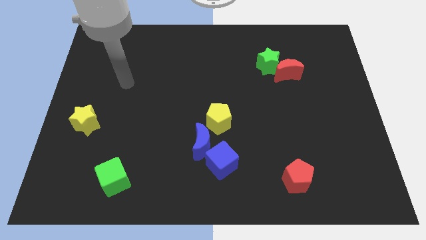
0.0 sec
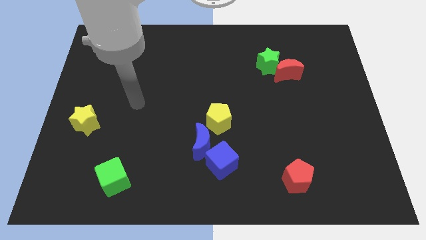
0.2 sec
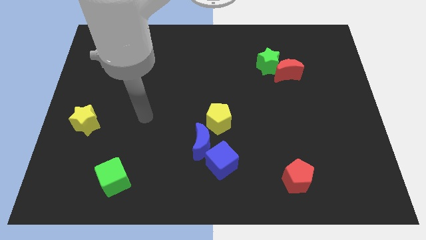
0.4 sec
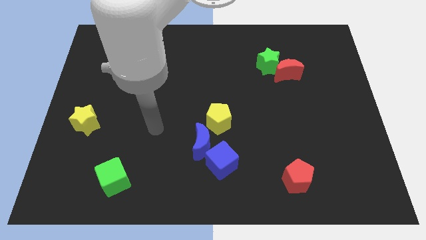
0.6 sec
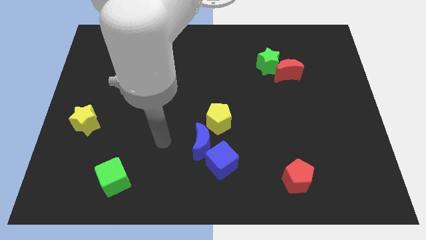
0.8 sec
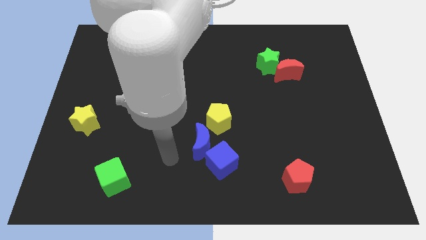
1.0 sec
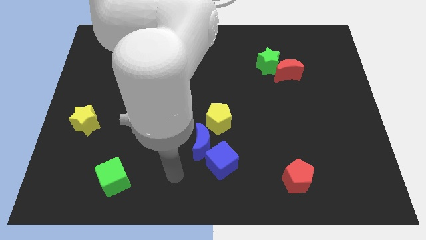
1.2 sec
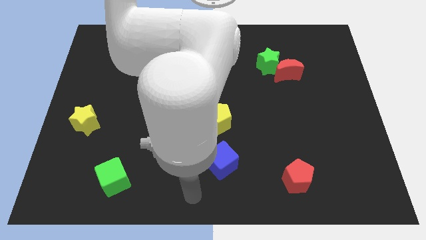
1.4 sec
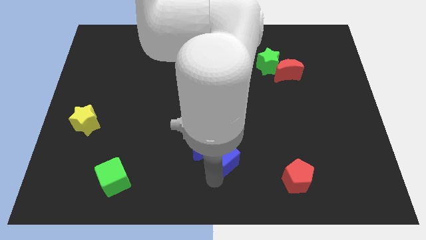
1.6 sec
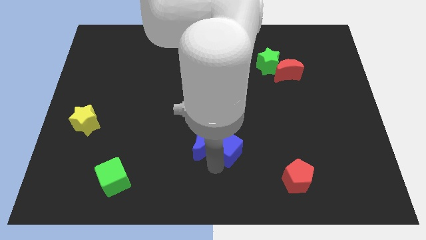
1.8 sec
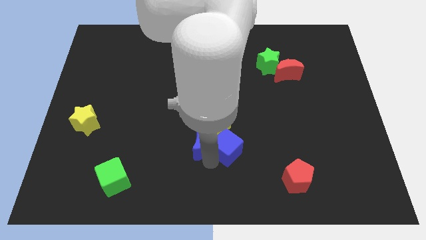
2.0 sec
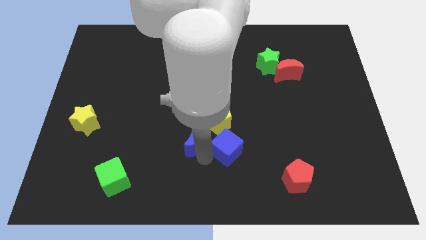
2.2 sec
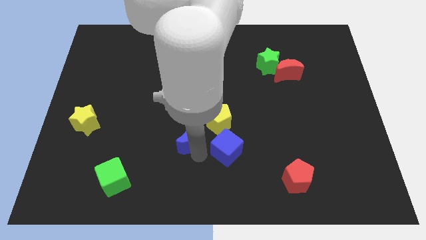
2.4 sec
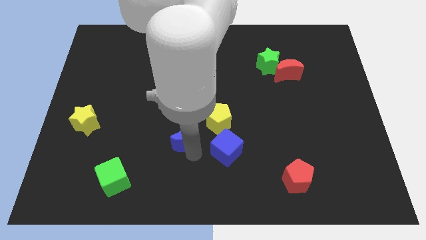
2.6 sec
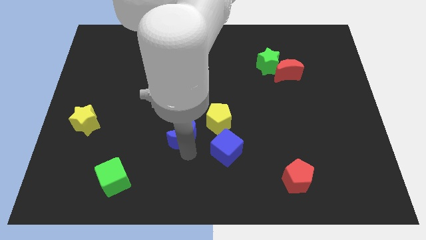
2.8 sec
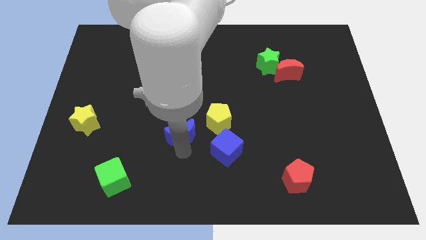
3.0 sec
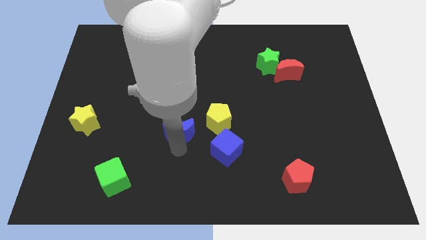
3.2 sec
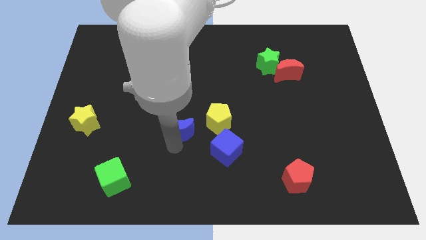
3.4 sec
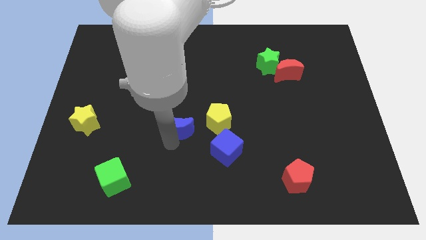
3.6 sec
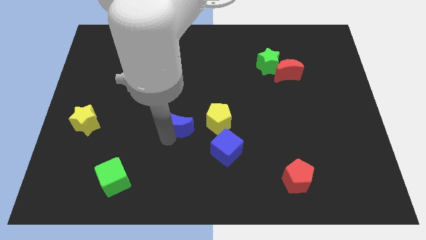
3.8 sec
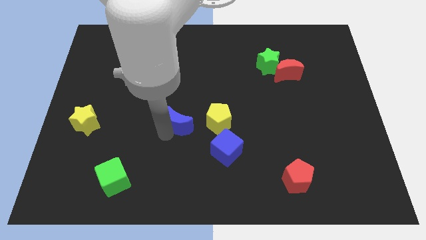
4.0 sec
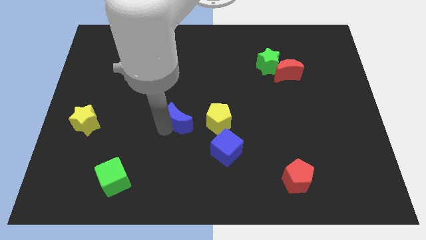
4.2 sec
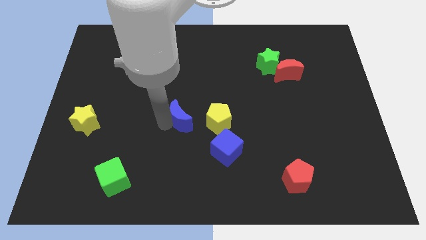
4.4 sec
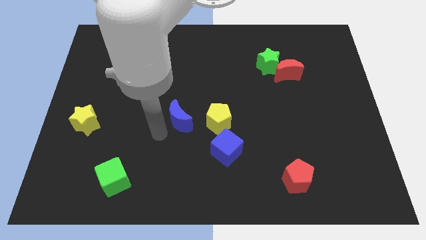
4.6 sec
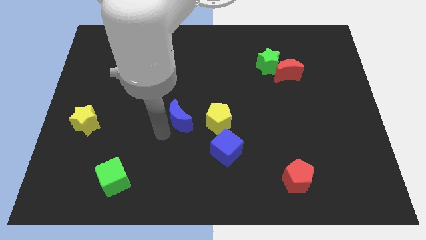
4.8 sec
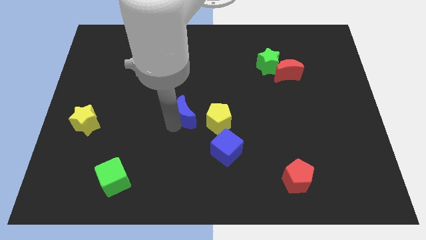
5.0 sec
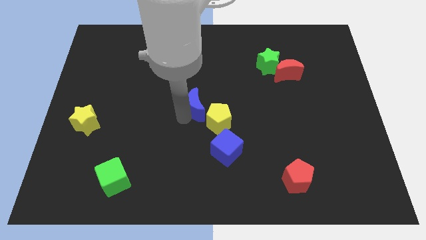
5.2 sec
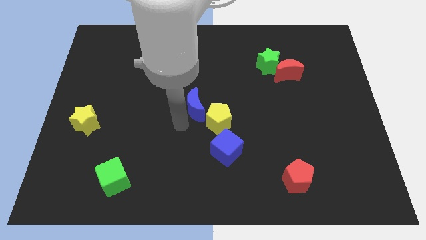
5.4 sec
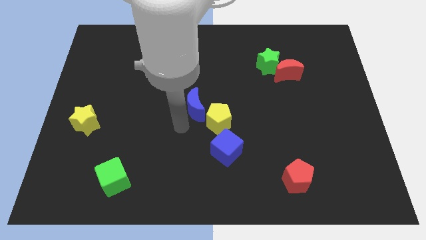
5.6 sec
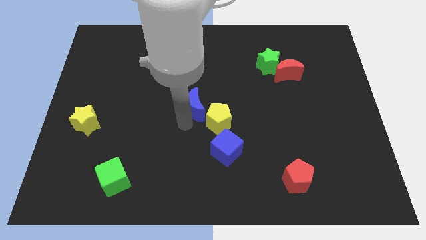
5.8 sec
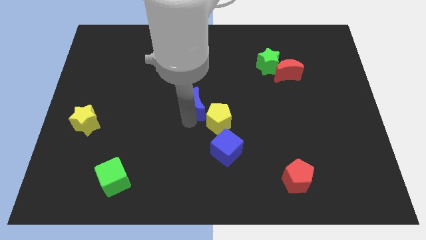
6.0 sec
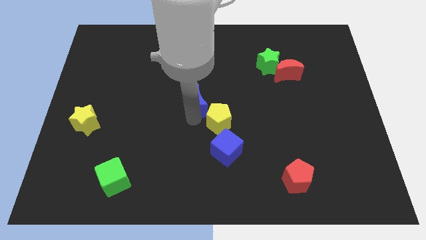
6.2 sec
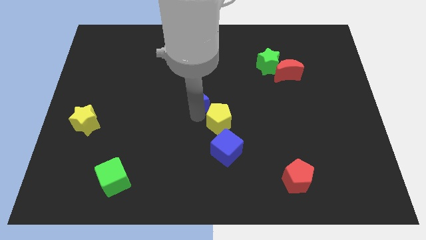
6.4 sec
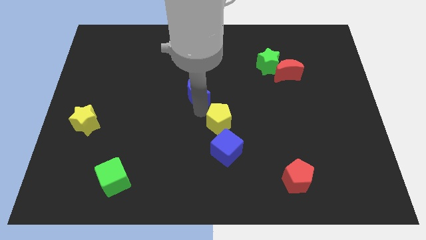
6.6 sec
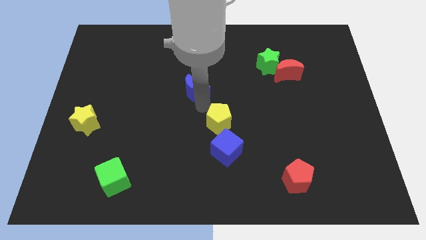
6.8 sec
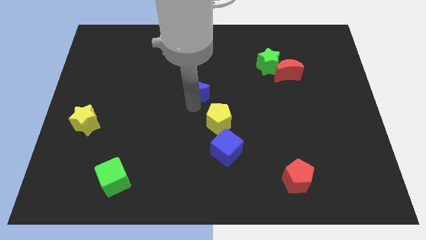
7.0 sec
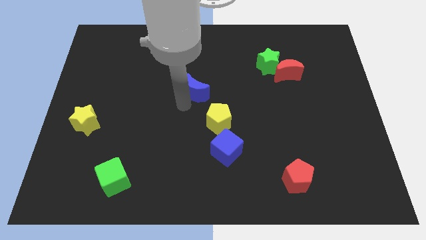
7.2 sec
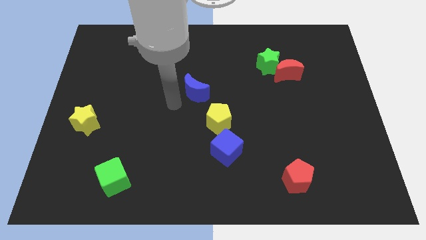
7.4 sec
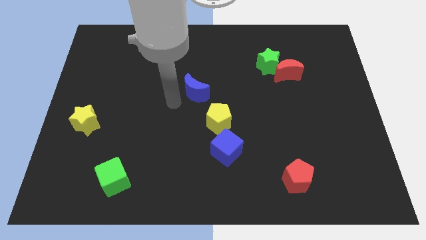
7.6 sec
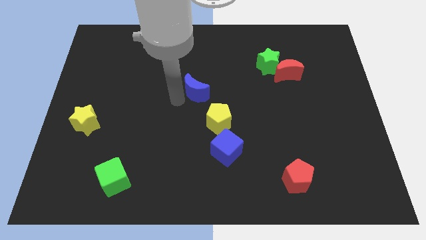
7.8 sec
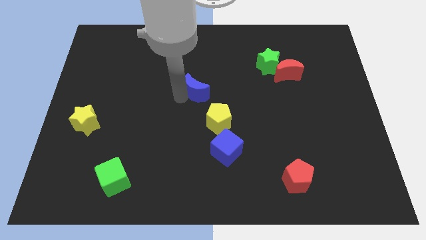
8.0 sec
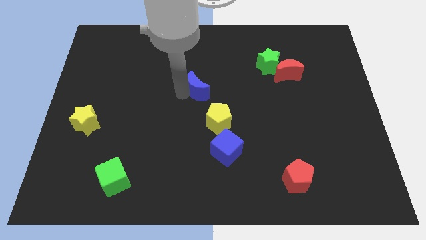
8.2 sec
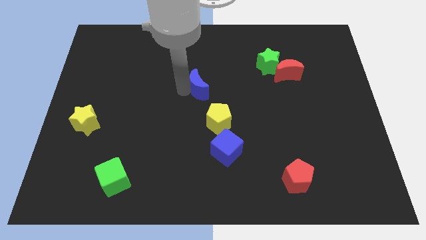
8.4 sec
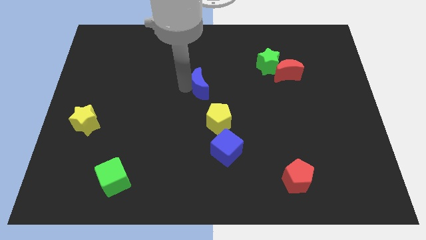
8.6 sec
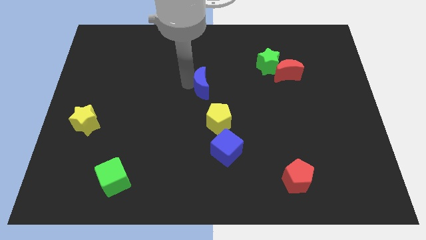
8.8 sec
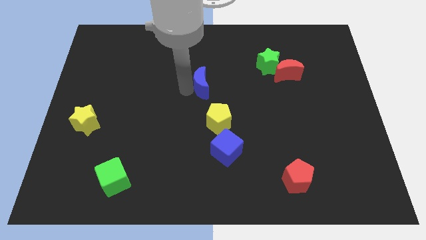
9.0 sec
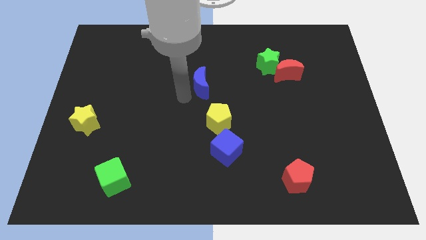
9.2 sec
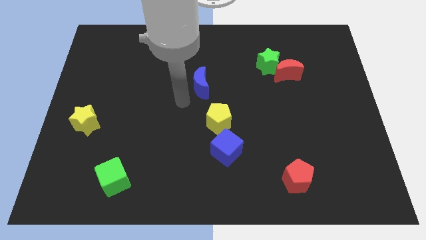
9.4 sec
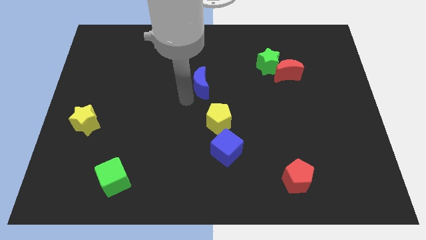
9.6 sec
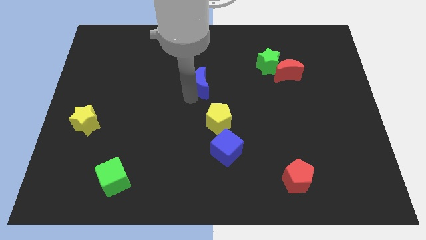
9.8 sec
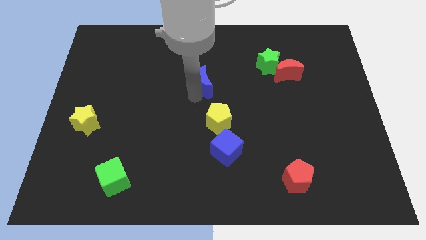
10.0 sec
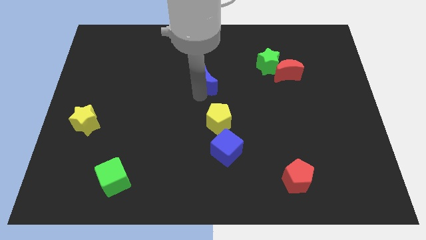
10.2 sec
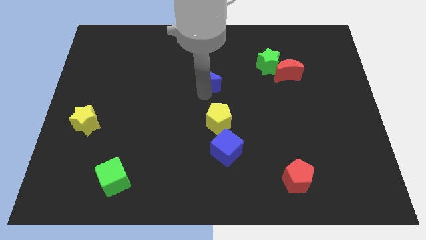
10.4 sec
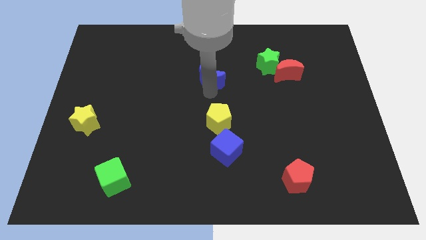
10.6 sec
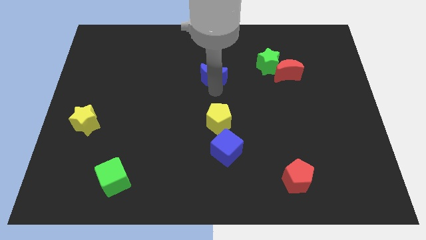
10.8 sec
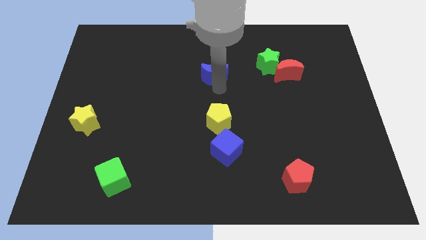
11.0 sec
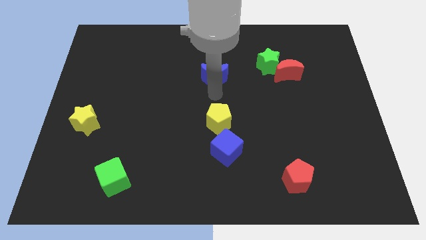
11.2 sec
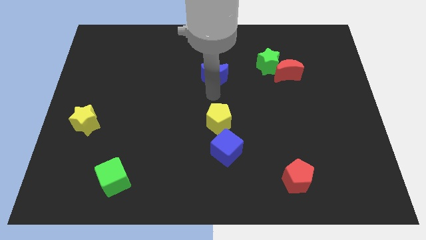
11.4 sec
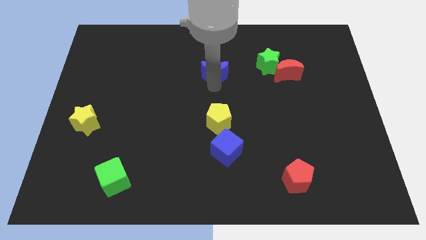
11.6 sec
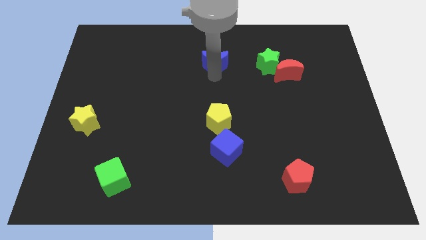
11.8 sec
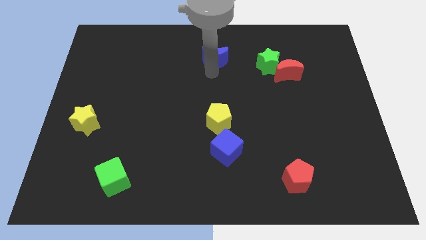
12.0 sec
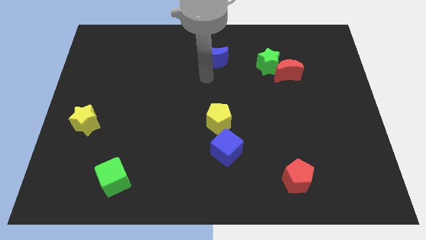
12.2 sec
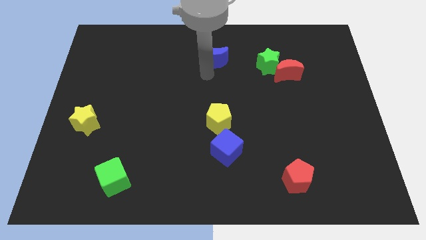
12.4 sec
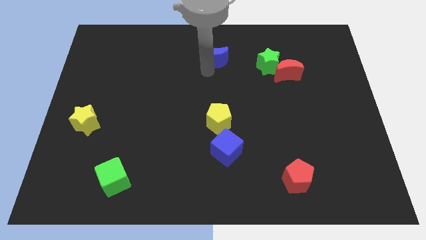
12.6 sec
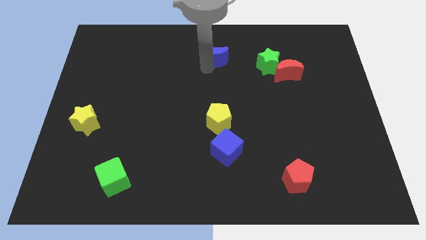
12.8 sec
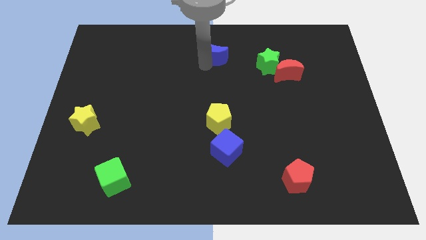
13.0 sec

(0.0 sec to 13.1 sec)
slide the blue moon to the towards your base

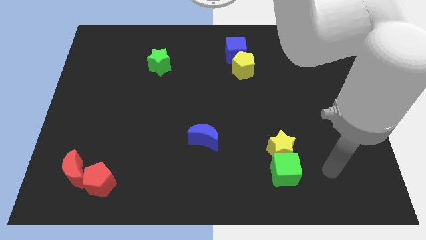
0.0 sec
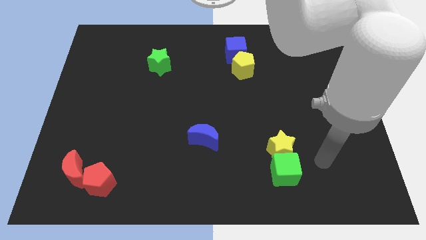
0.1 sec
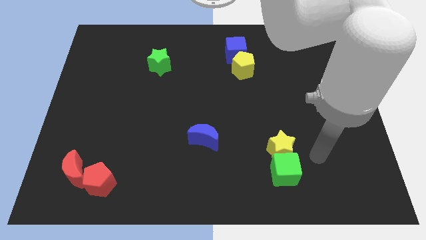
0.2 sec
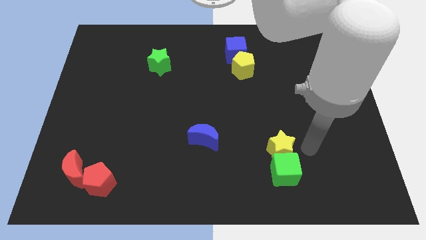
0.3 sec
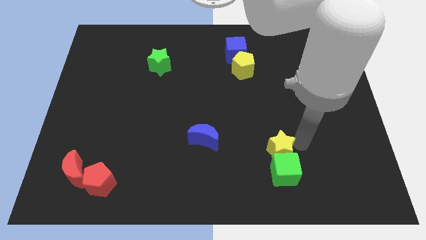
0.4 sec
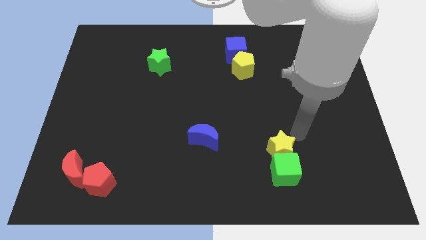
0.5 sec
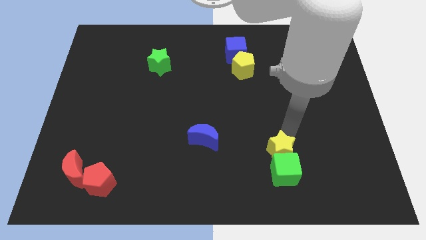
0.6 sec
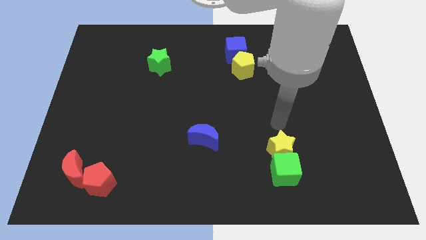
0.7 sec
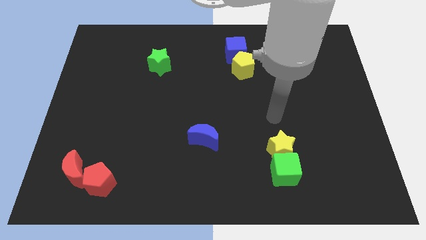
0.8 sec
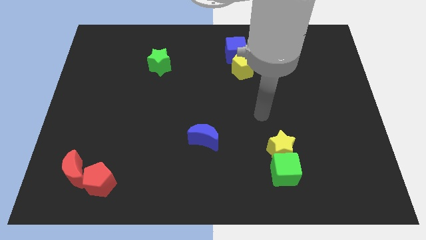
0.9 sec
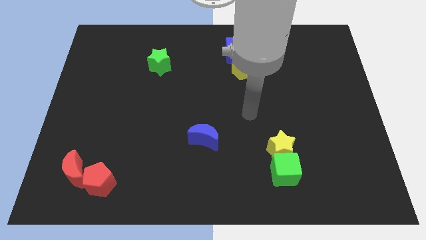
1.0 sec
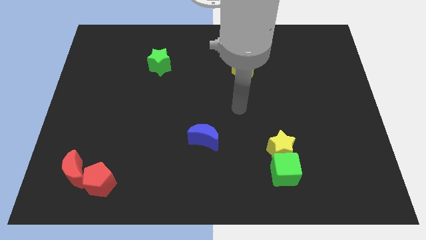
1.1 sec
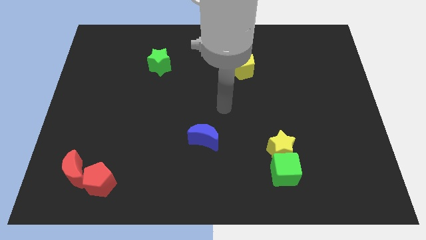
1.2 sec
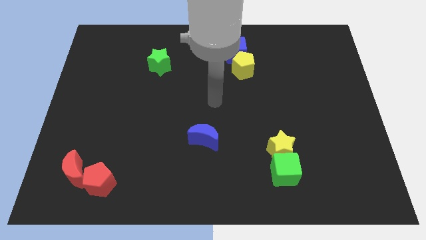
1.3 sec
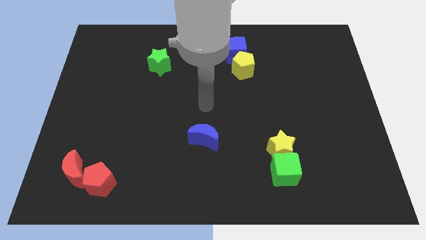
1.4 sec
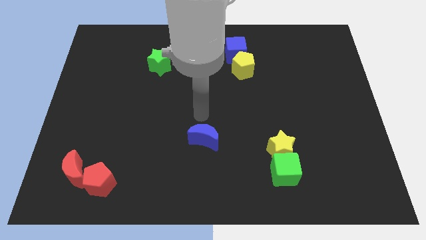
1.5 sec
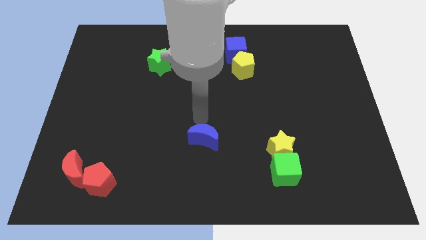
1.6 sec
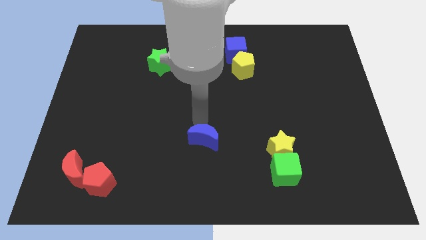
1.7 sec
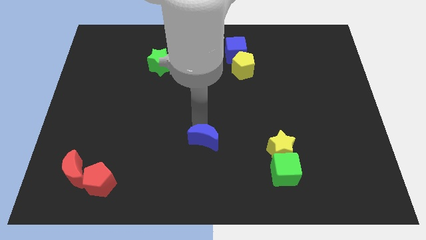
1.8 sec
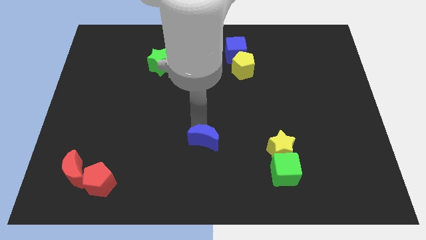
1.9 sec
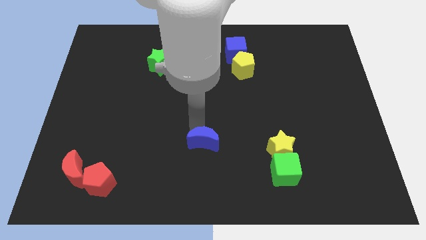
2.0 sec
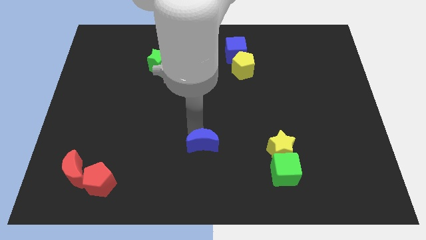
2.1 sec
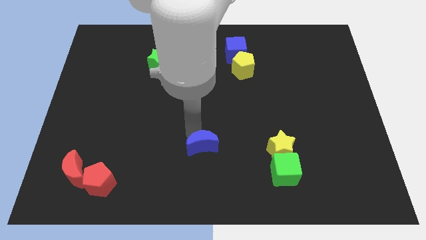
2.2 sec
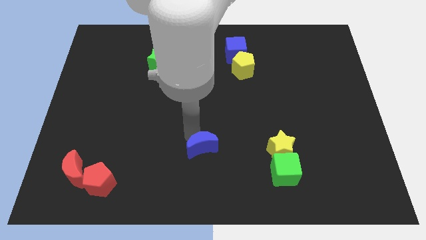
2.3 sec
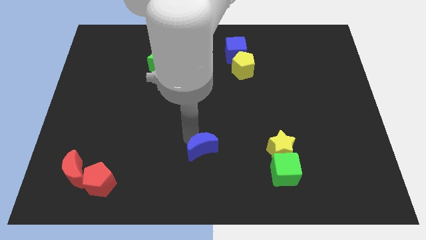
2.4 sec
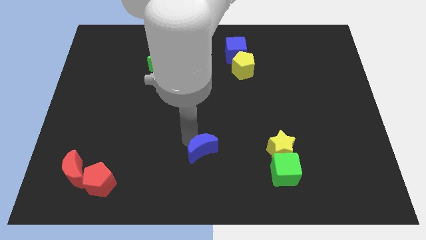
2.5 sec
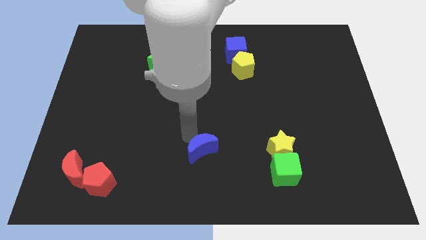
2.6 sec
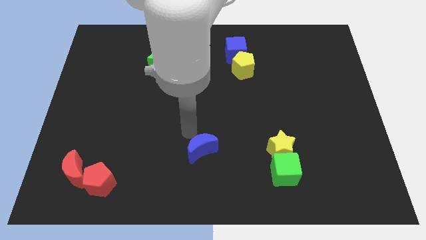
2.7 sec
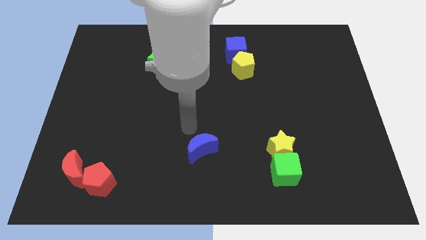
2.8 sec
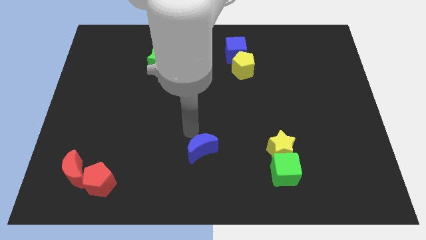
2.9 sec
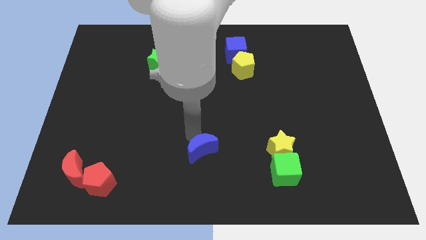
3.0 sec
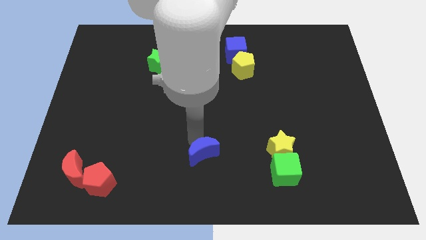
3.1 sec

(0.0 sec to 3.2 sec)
move the blue moon to the bottom
